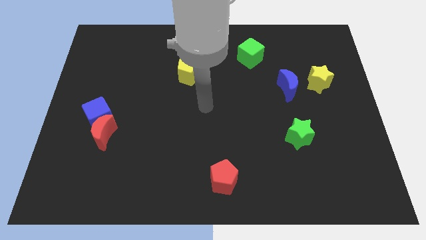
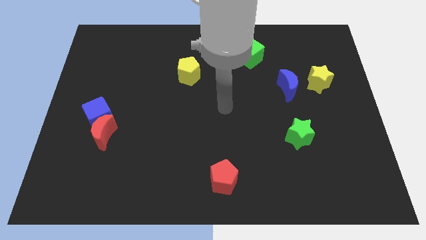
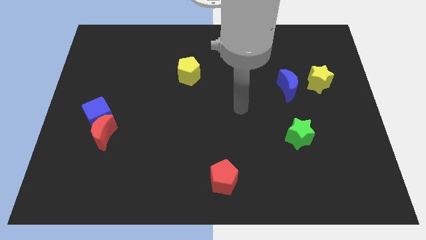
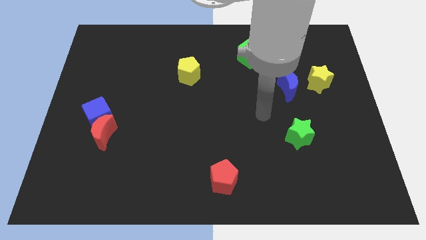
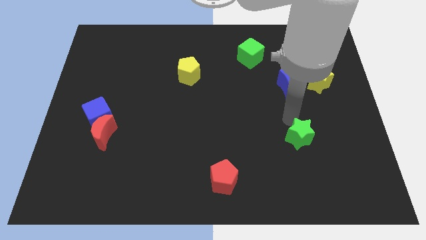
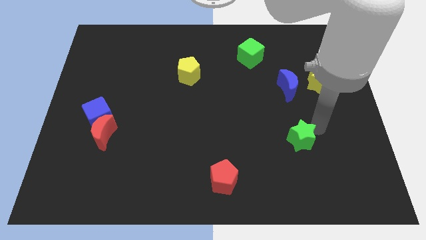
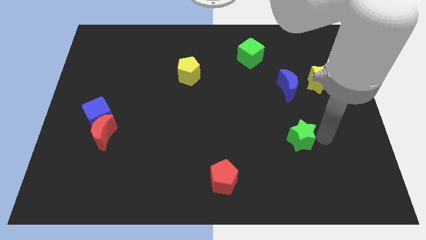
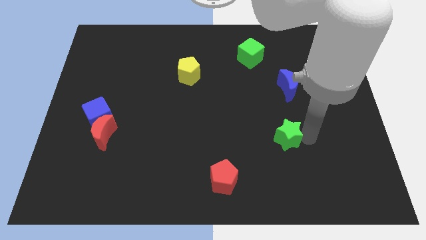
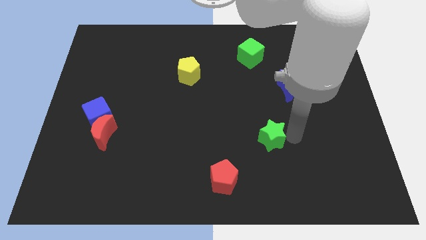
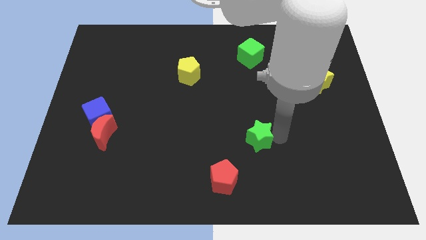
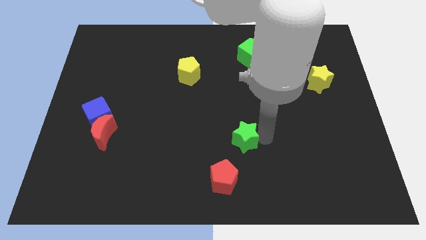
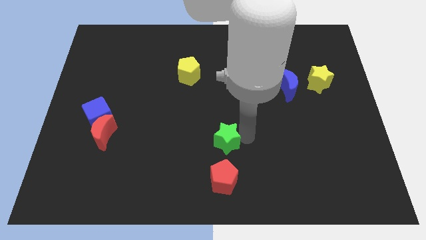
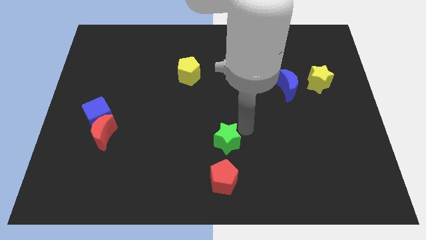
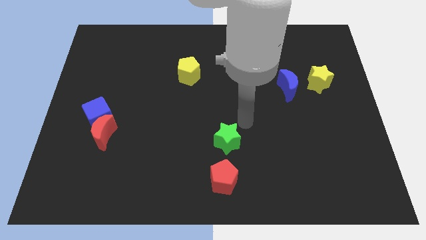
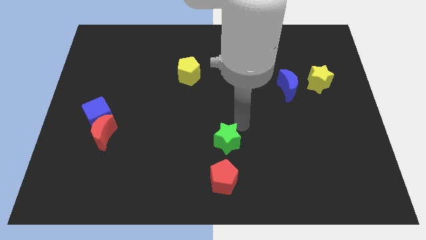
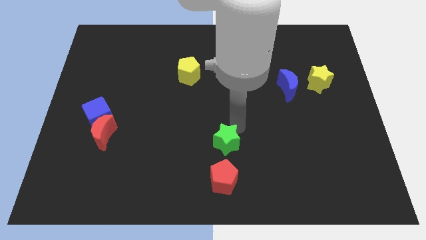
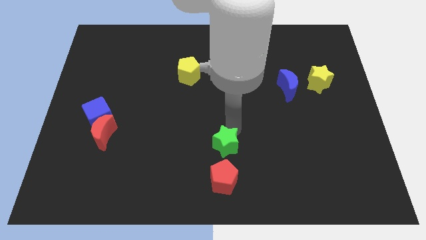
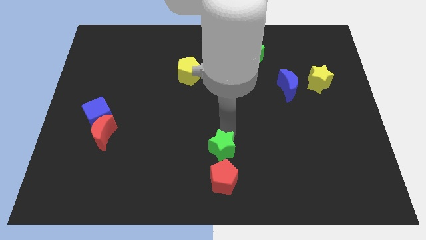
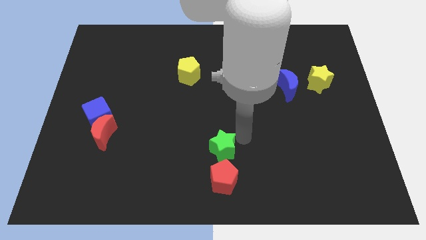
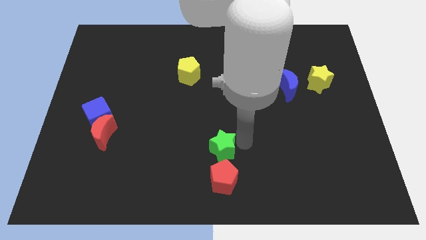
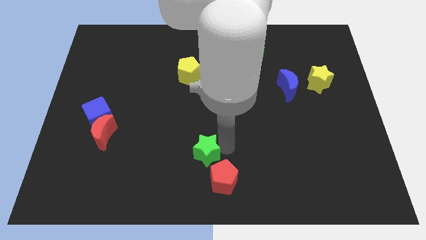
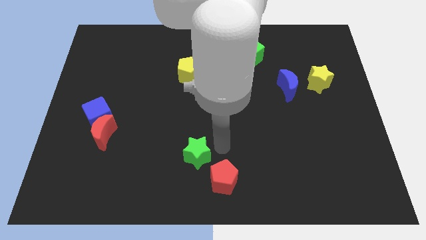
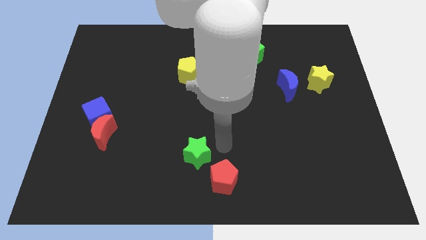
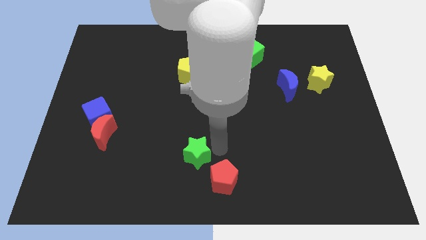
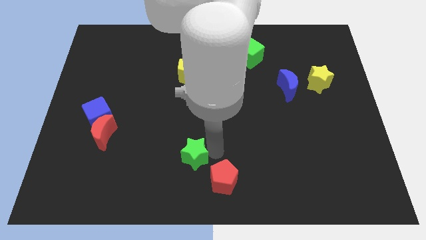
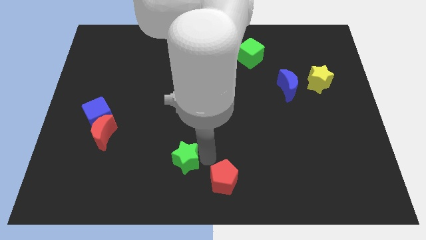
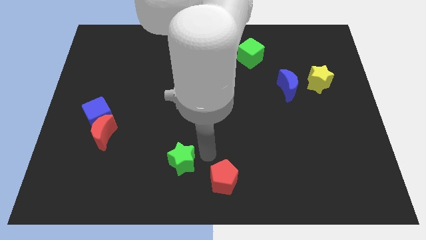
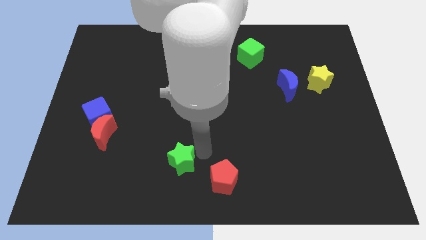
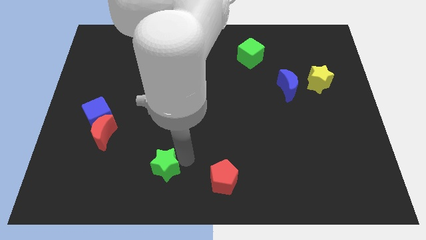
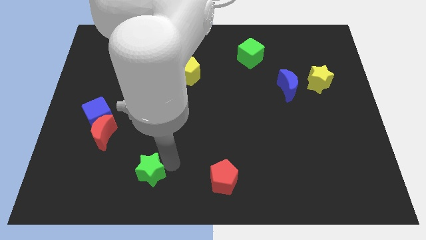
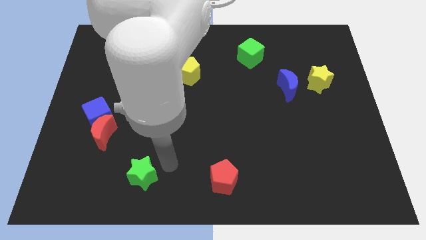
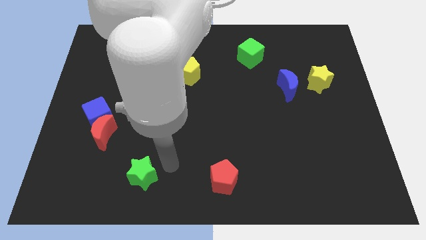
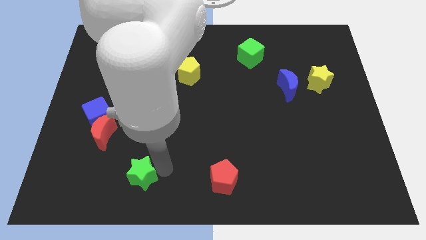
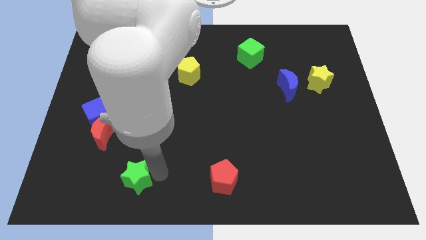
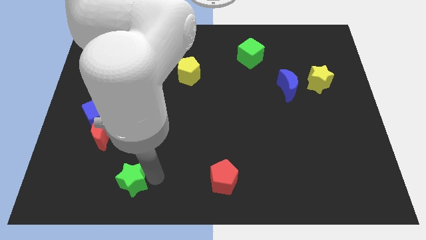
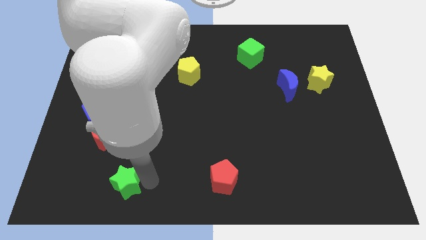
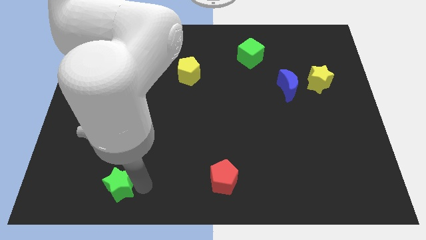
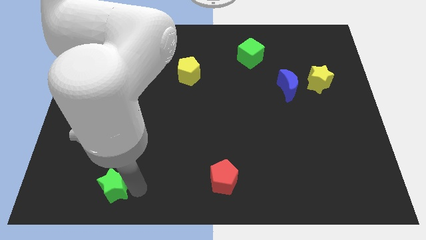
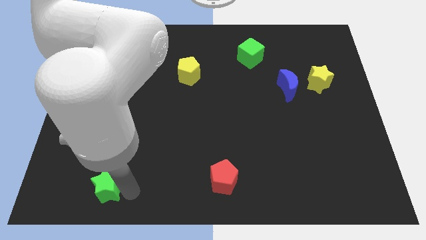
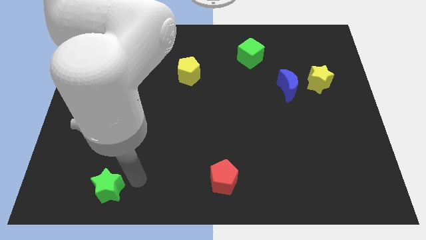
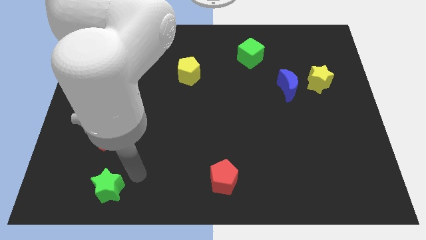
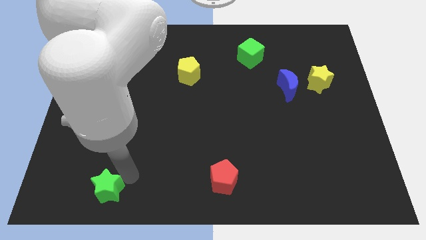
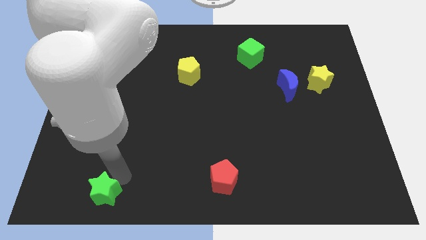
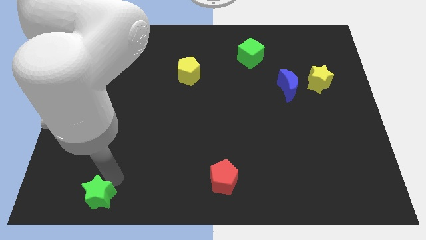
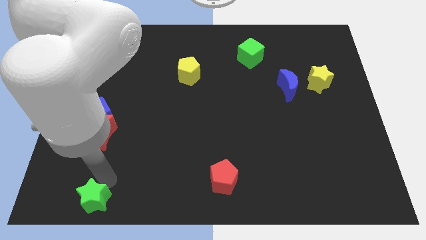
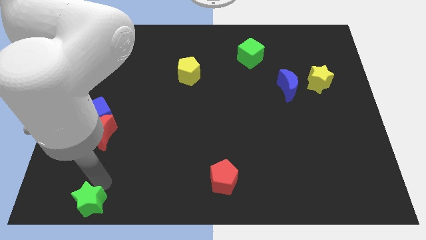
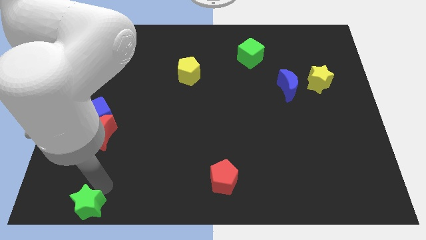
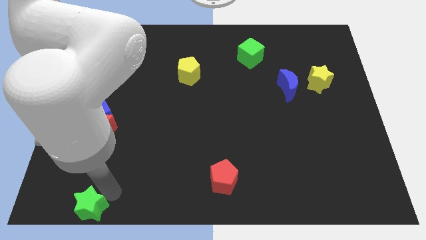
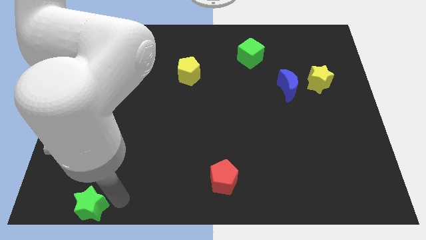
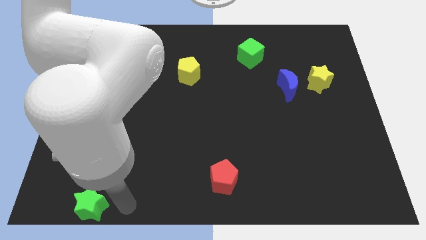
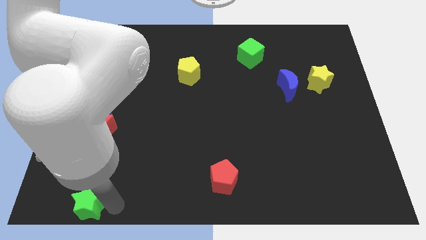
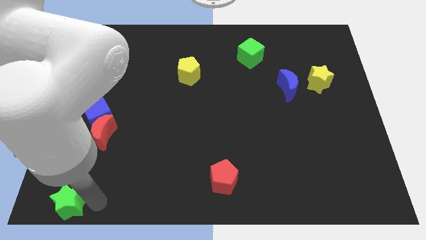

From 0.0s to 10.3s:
put the green star to the bottom left of the board

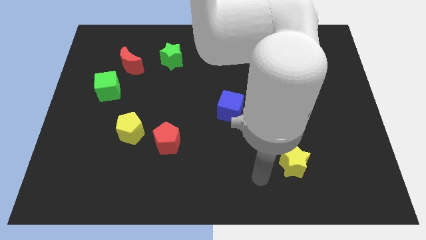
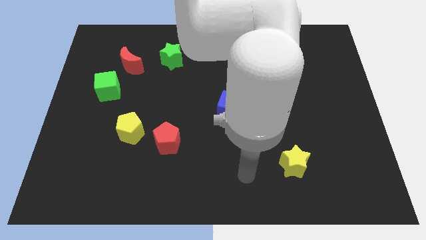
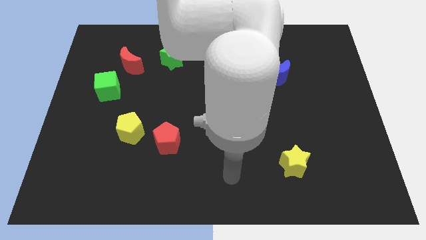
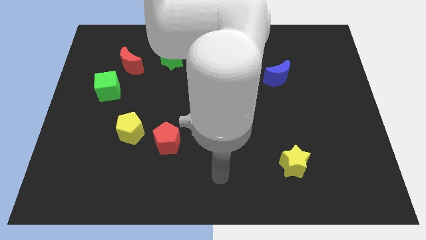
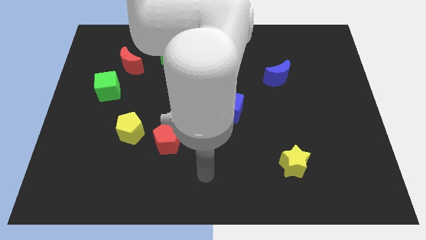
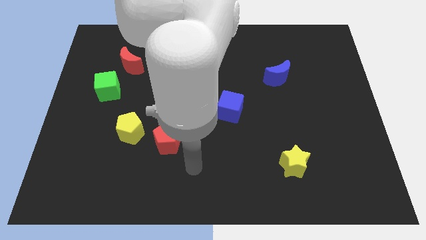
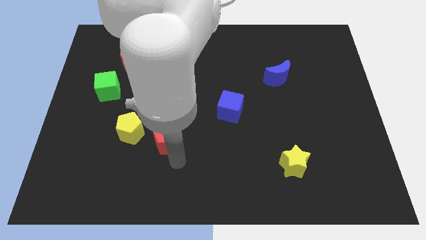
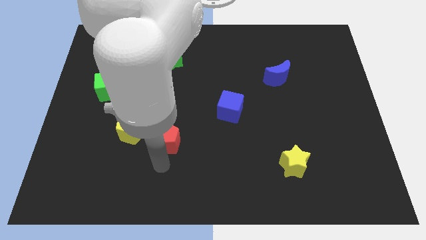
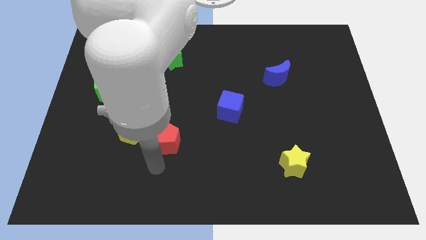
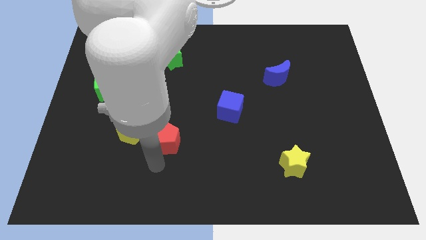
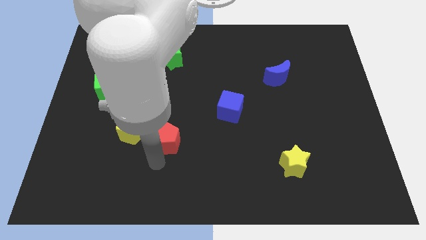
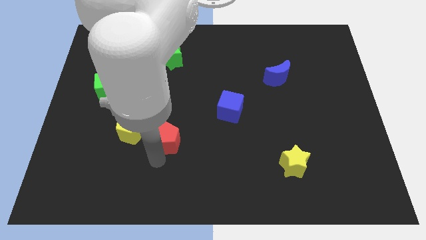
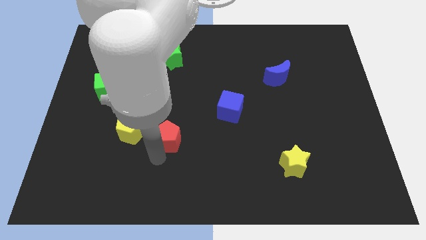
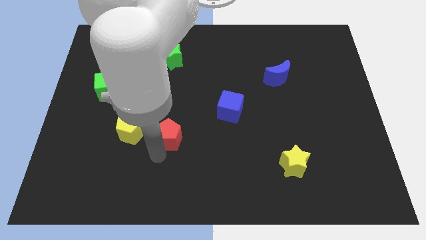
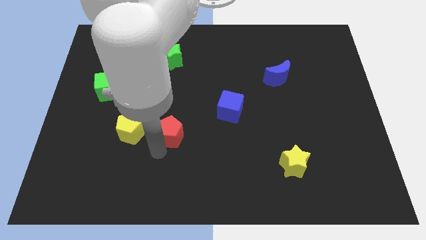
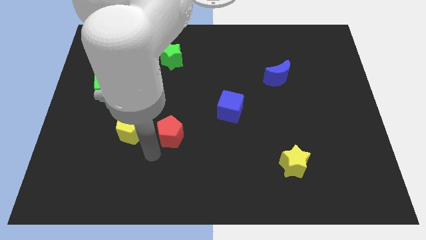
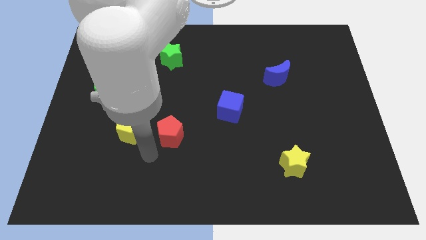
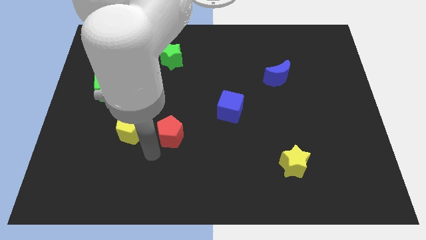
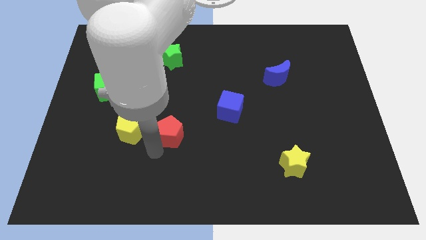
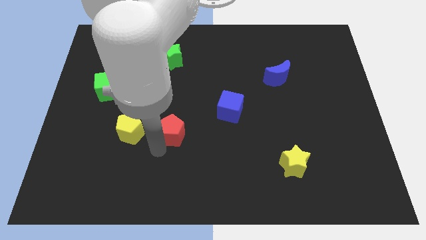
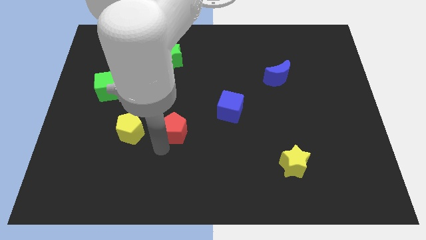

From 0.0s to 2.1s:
push the red pentagon to the middle

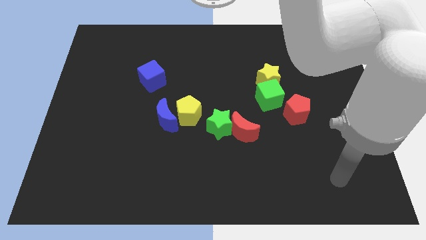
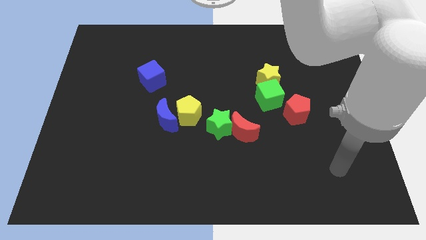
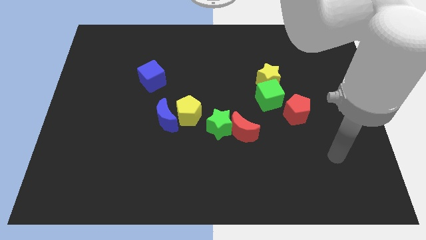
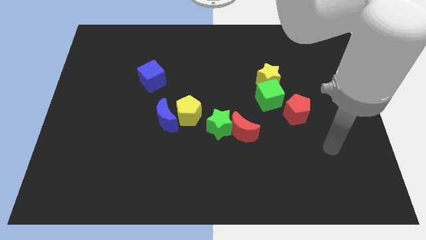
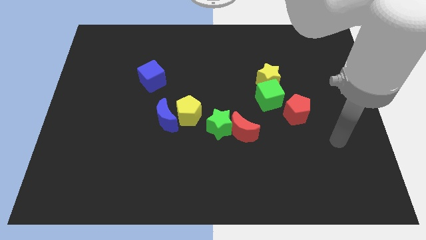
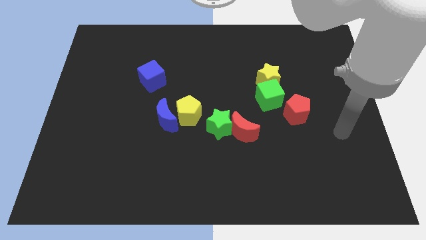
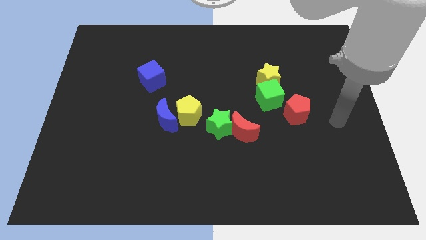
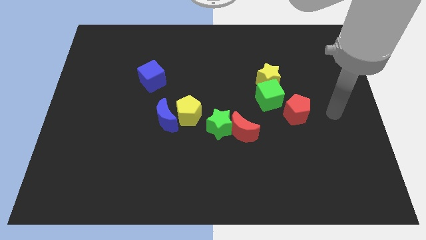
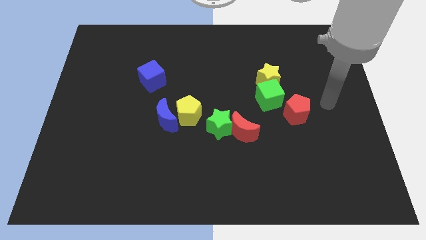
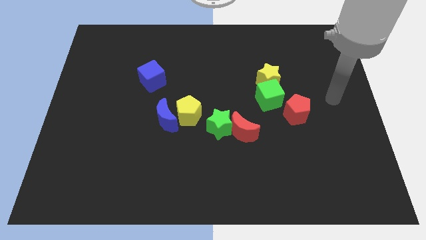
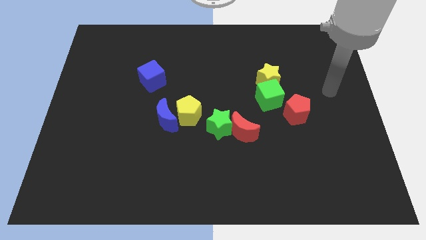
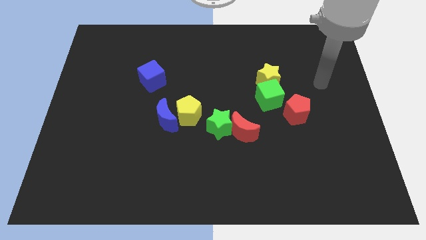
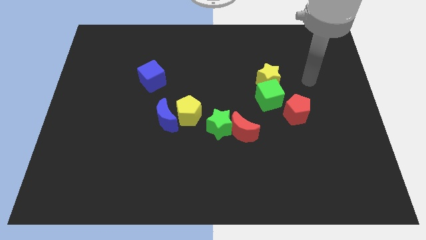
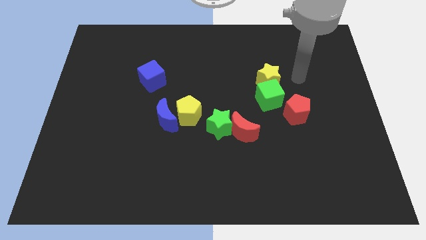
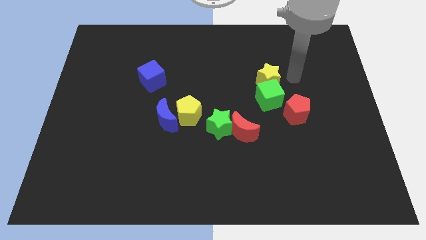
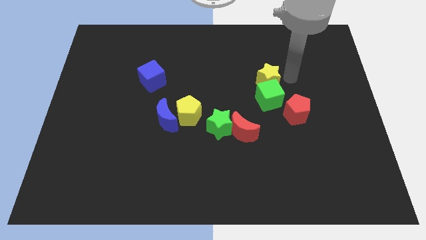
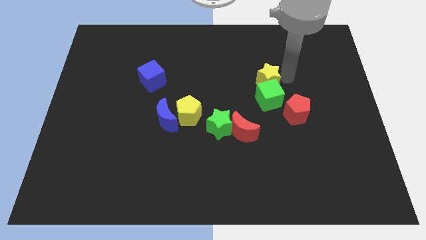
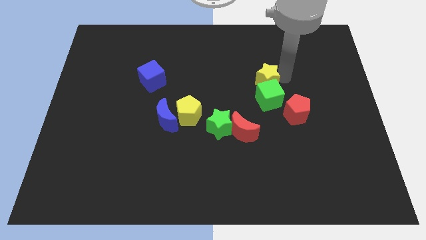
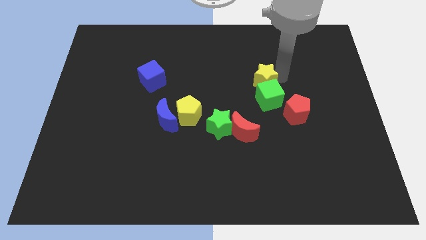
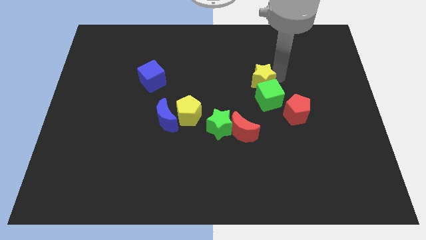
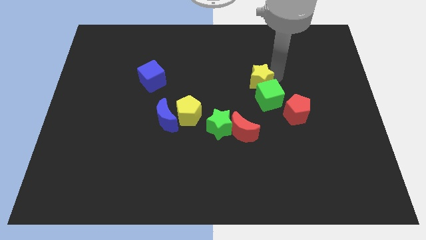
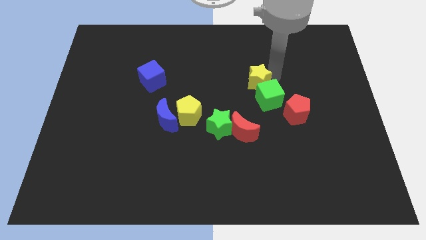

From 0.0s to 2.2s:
move the yellow star to the middle
